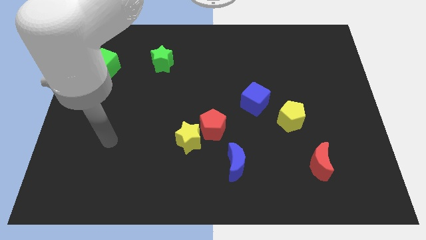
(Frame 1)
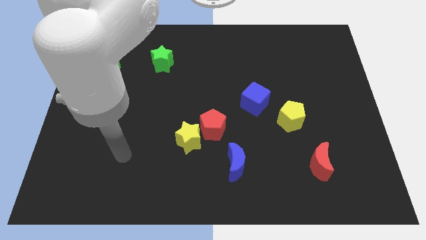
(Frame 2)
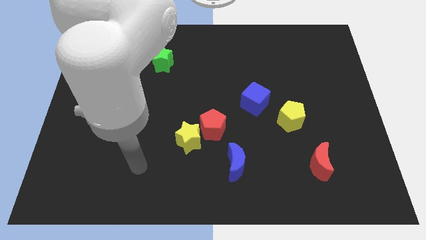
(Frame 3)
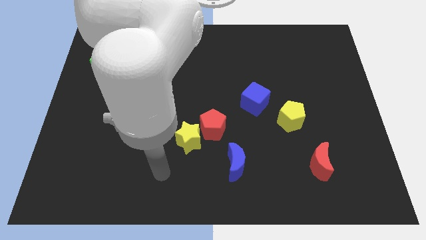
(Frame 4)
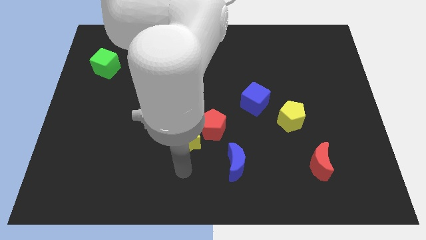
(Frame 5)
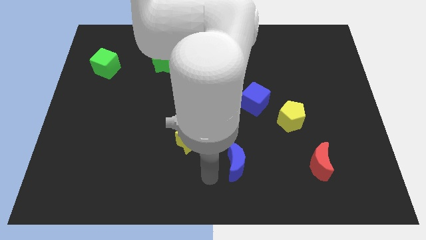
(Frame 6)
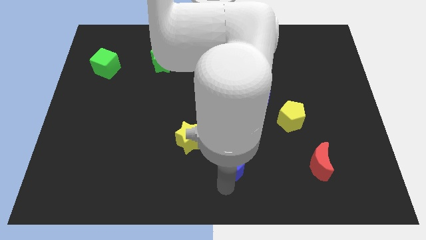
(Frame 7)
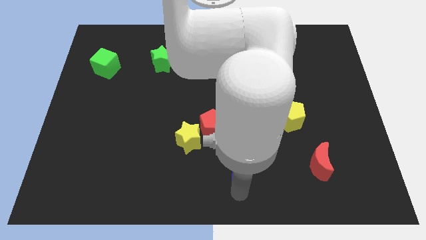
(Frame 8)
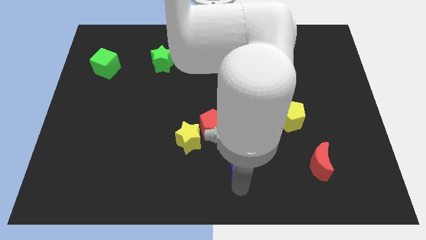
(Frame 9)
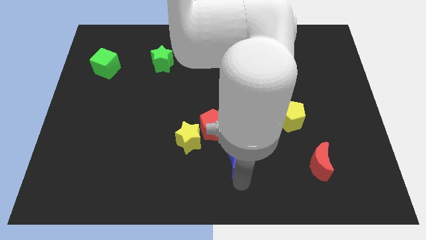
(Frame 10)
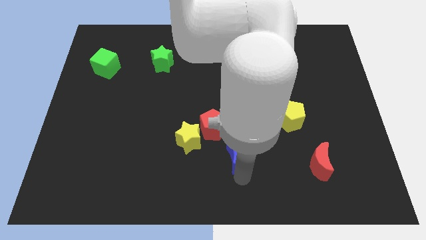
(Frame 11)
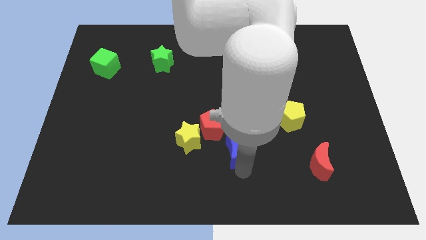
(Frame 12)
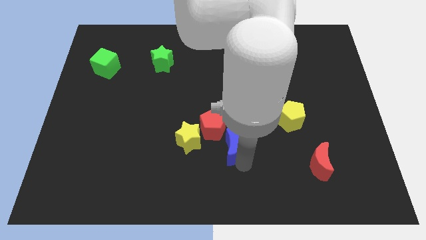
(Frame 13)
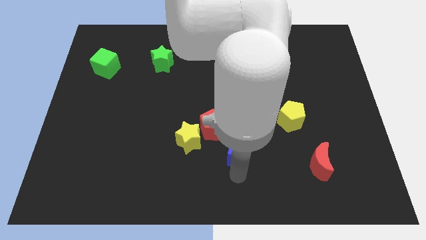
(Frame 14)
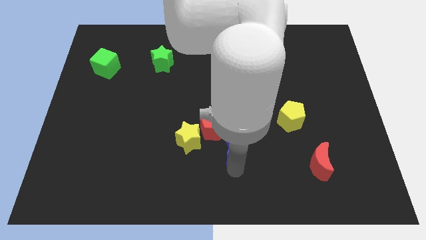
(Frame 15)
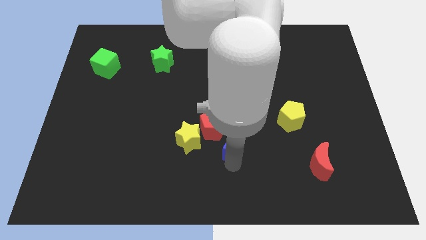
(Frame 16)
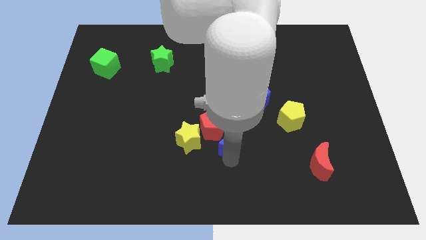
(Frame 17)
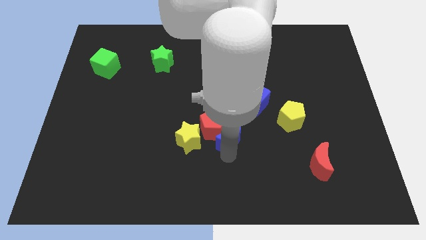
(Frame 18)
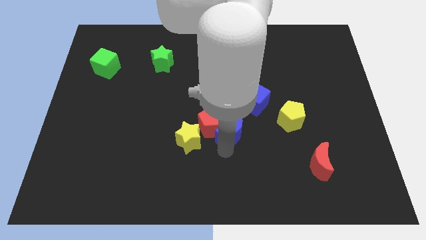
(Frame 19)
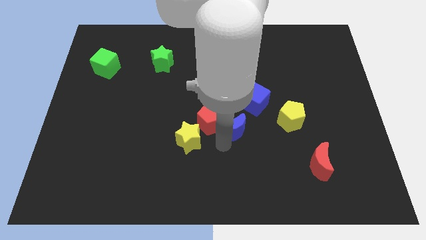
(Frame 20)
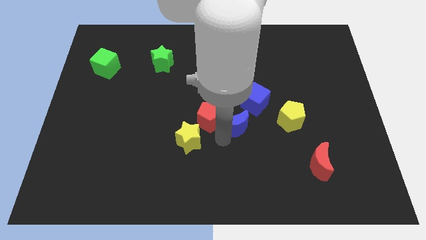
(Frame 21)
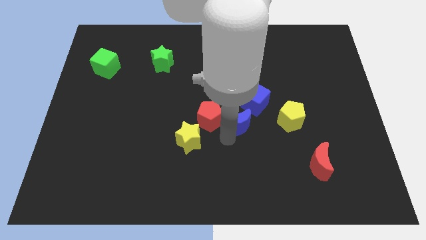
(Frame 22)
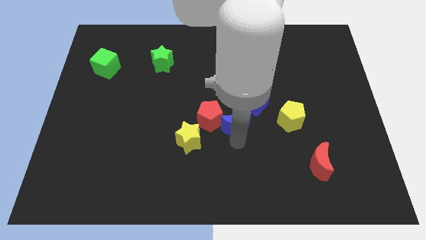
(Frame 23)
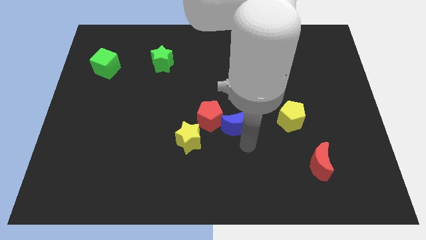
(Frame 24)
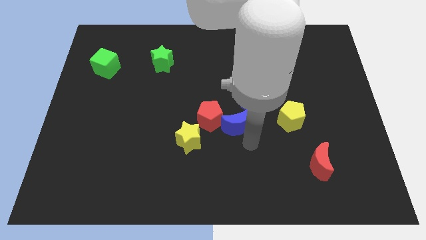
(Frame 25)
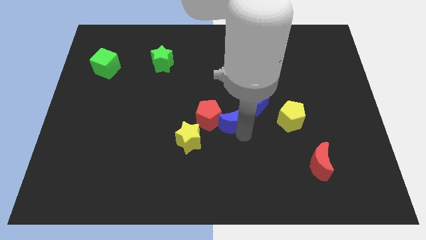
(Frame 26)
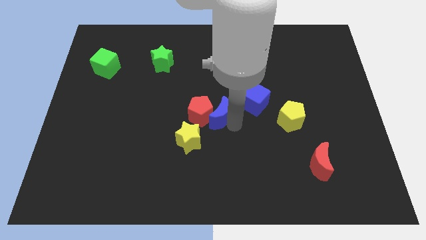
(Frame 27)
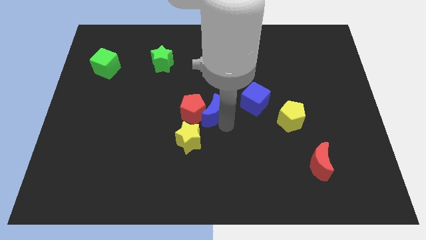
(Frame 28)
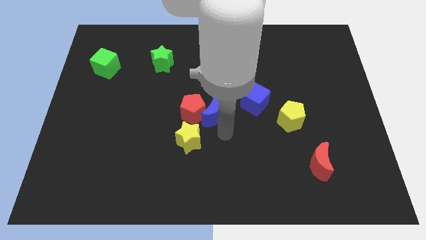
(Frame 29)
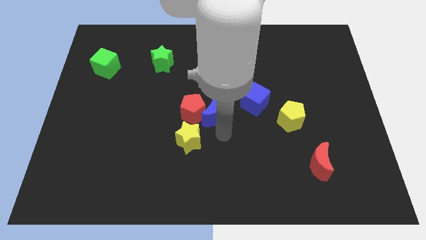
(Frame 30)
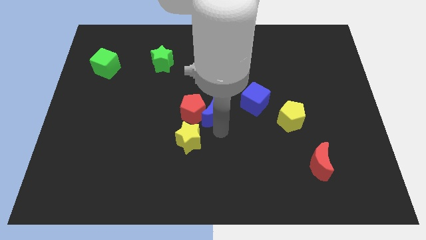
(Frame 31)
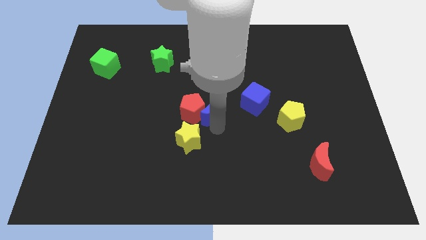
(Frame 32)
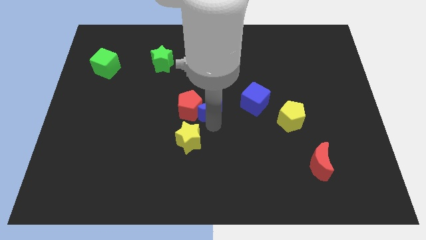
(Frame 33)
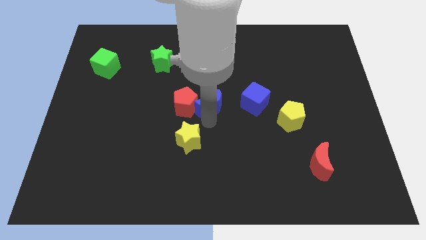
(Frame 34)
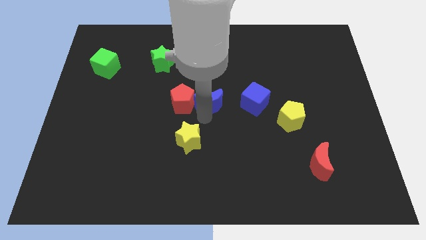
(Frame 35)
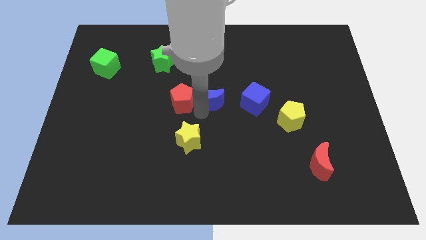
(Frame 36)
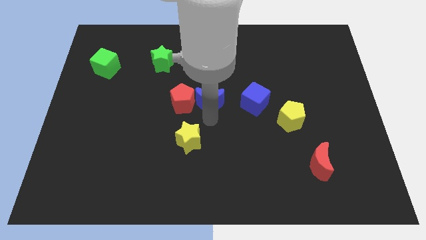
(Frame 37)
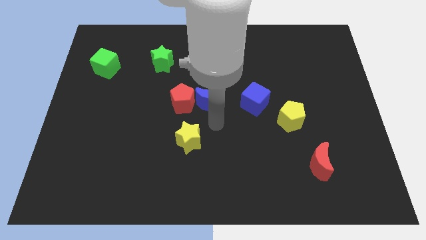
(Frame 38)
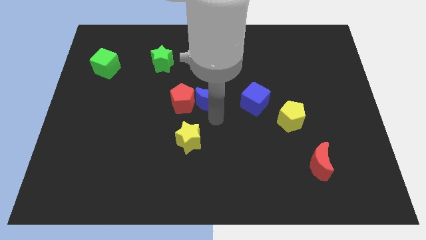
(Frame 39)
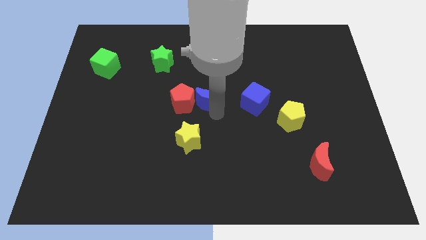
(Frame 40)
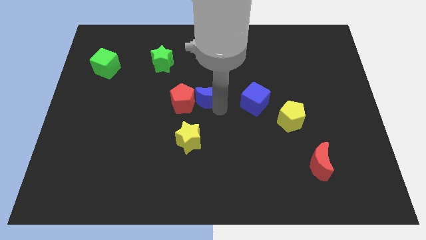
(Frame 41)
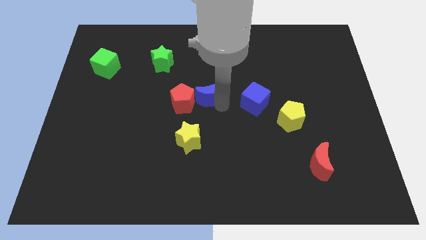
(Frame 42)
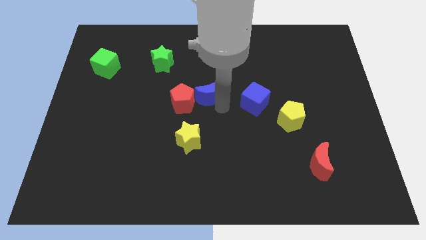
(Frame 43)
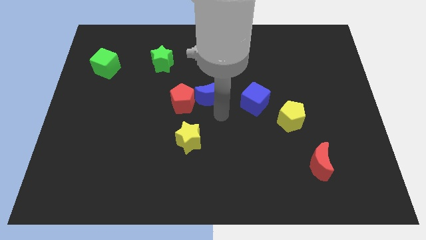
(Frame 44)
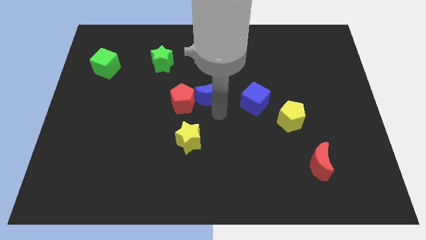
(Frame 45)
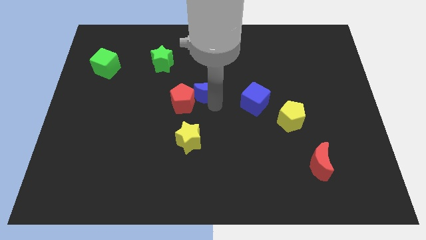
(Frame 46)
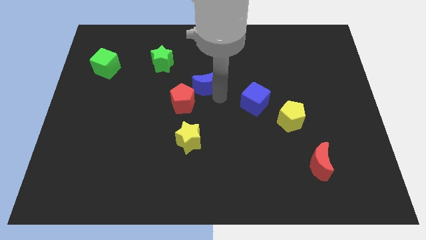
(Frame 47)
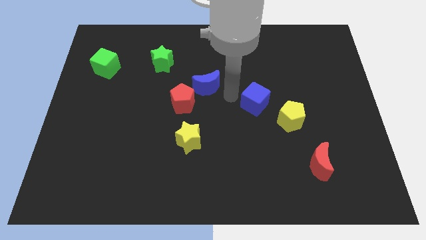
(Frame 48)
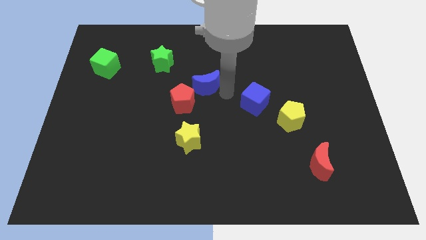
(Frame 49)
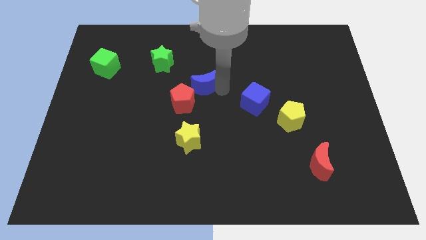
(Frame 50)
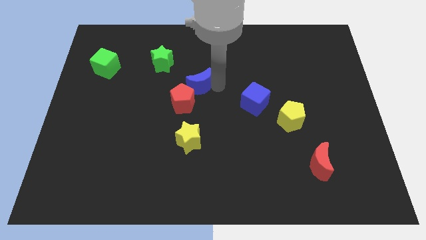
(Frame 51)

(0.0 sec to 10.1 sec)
move the blue moon to the bottom right side of the green star

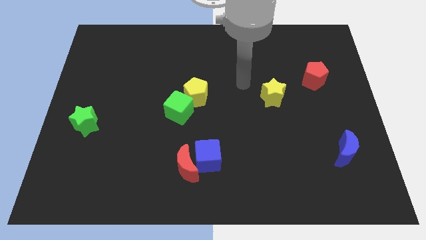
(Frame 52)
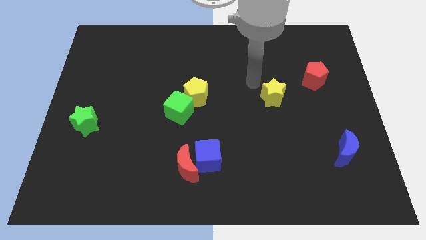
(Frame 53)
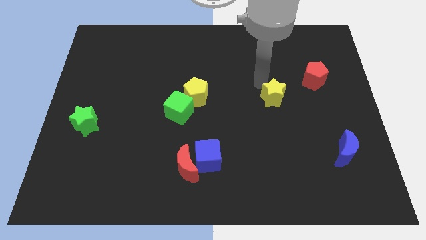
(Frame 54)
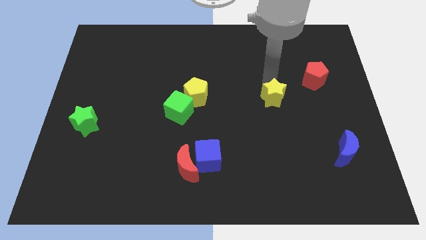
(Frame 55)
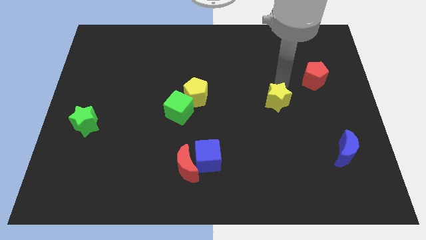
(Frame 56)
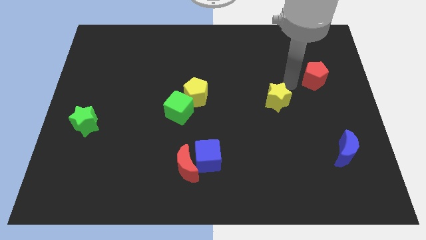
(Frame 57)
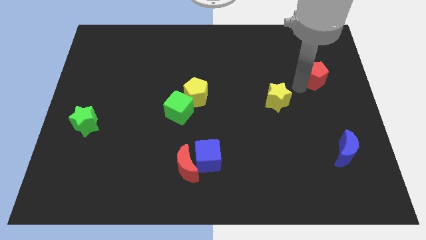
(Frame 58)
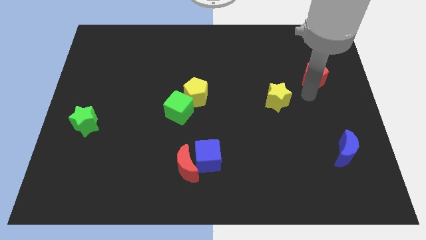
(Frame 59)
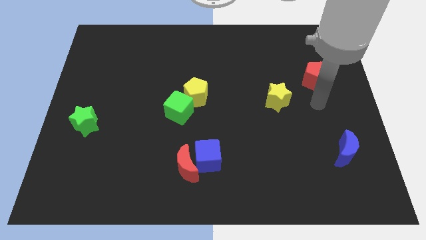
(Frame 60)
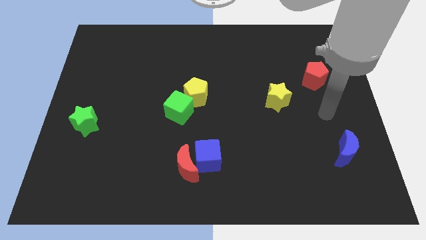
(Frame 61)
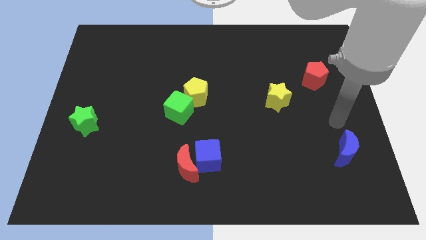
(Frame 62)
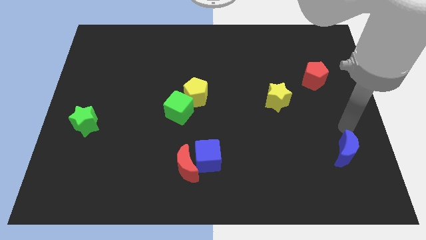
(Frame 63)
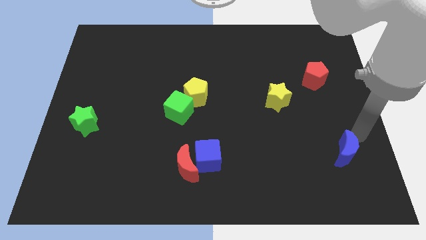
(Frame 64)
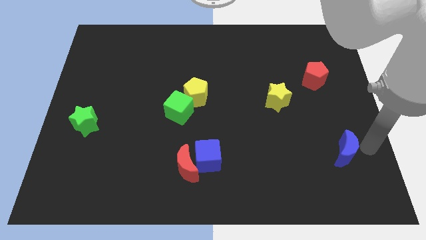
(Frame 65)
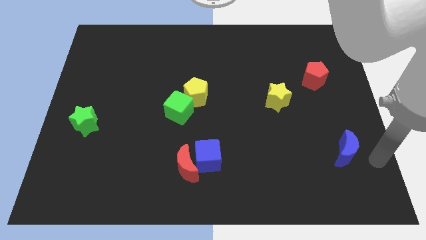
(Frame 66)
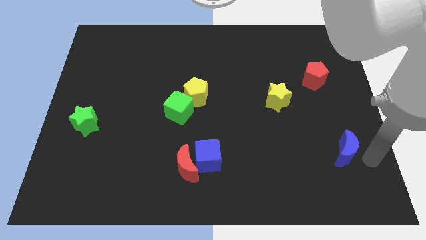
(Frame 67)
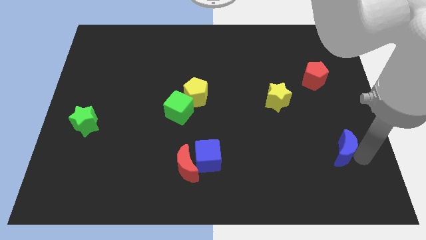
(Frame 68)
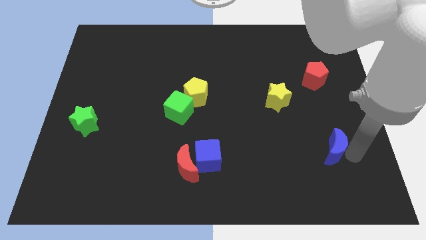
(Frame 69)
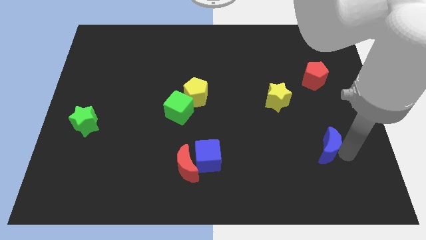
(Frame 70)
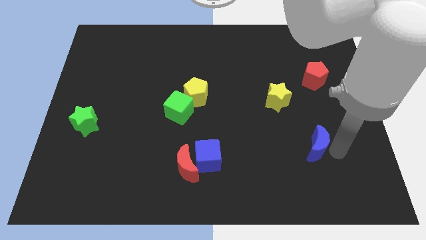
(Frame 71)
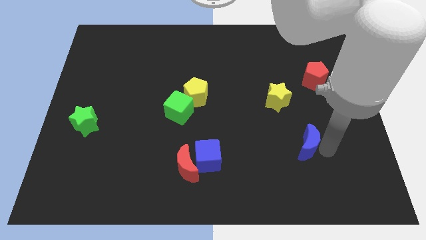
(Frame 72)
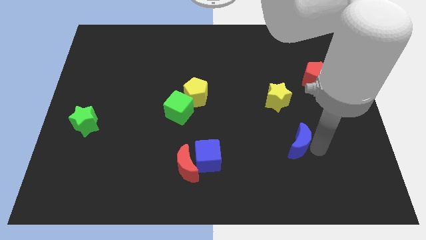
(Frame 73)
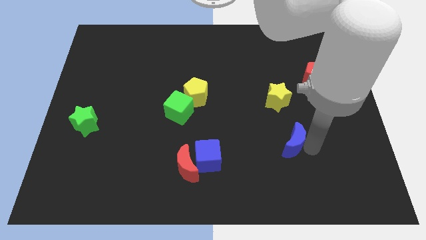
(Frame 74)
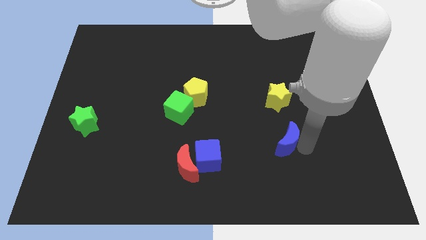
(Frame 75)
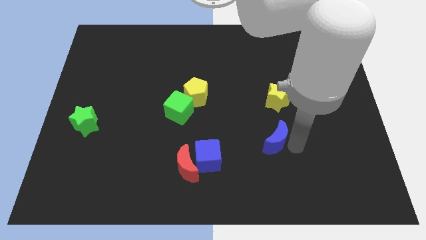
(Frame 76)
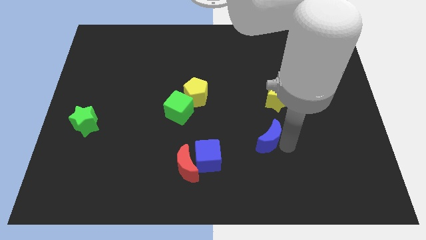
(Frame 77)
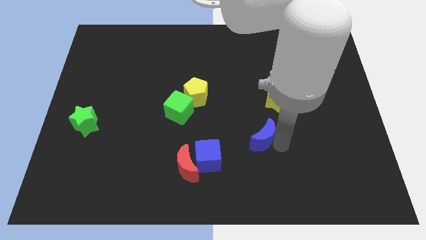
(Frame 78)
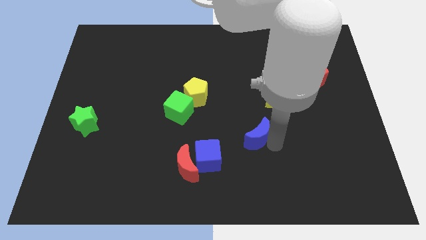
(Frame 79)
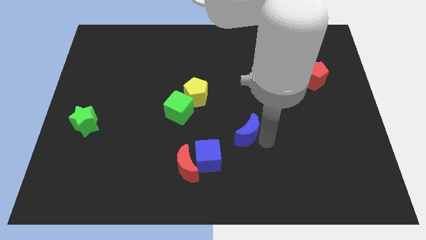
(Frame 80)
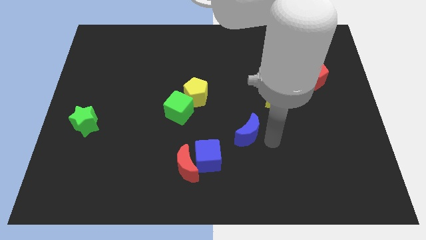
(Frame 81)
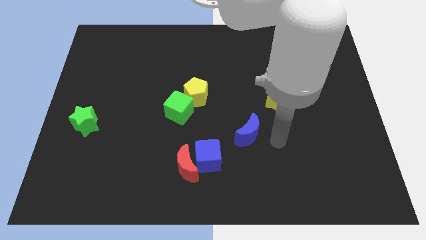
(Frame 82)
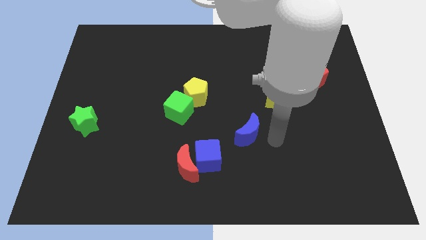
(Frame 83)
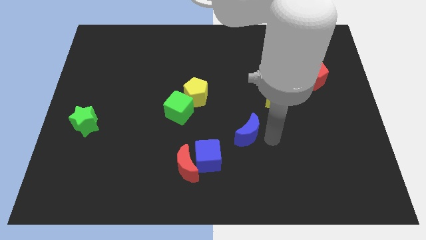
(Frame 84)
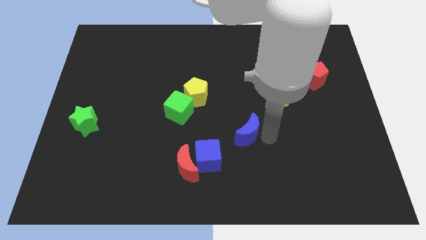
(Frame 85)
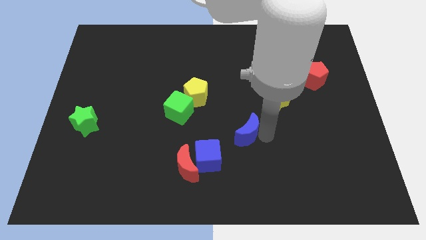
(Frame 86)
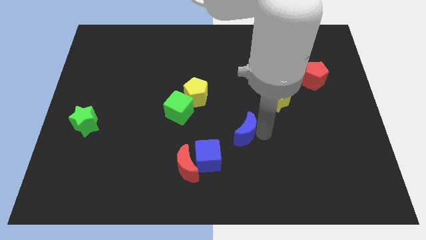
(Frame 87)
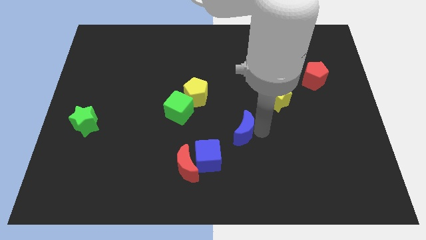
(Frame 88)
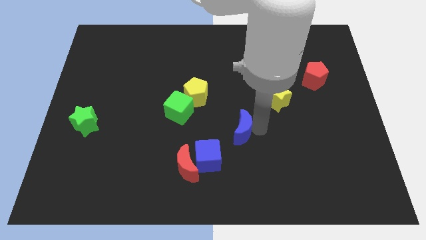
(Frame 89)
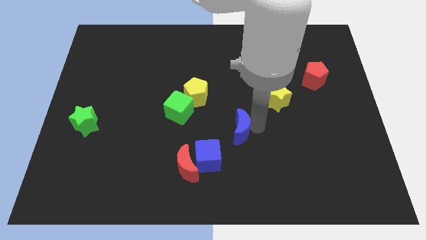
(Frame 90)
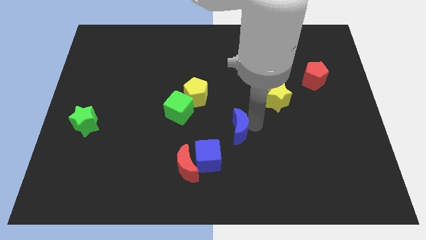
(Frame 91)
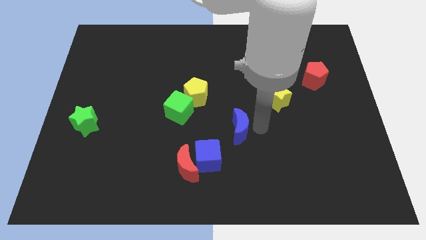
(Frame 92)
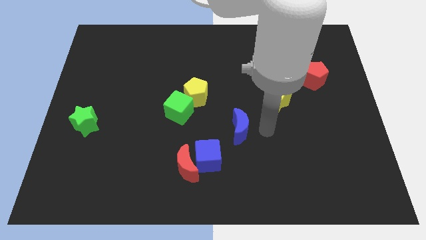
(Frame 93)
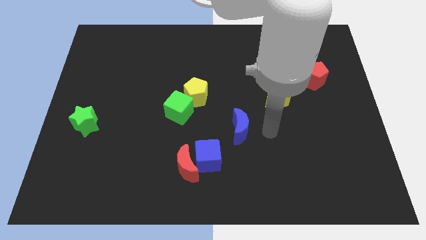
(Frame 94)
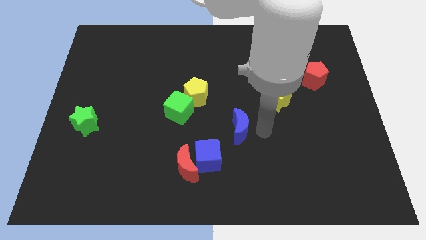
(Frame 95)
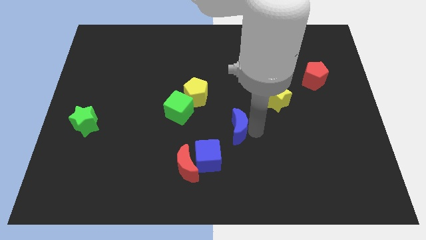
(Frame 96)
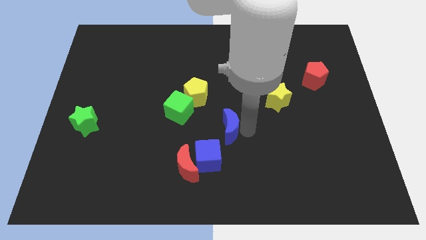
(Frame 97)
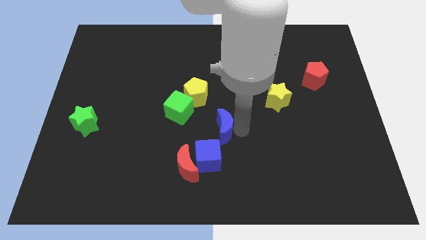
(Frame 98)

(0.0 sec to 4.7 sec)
slide the blue moon diagonally down and to the right of the green cube
